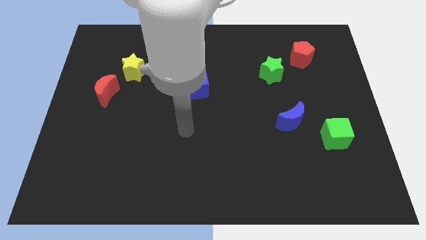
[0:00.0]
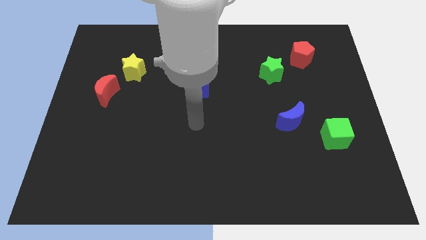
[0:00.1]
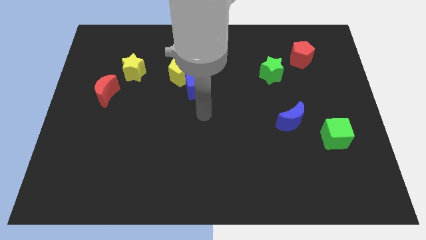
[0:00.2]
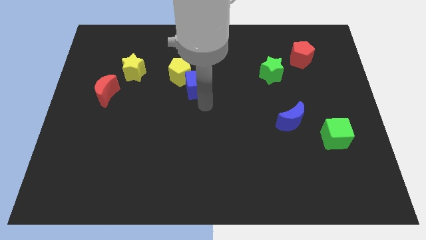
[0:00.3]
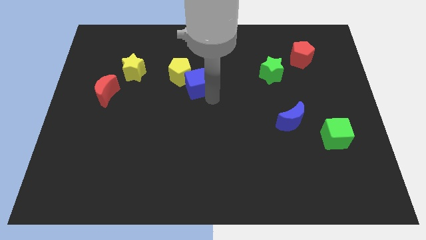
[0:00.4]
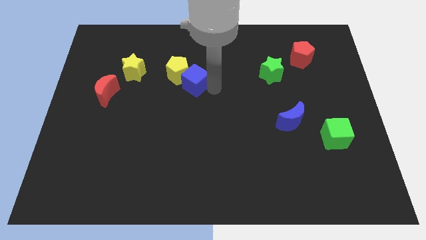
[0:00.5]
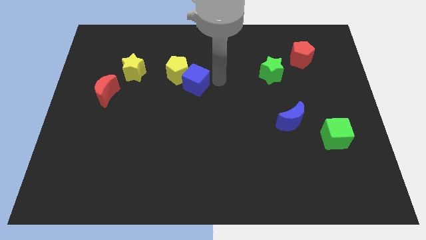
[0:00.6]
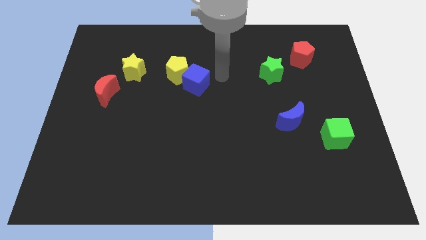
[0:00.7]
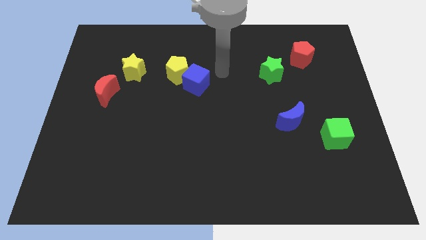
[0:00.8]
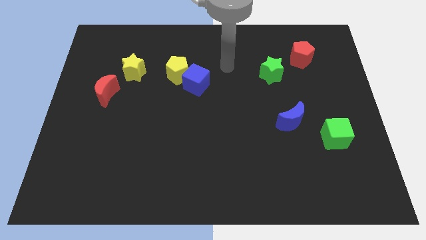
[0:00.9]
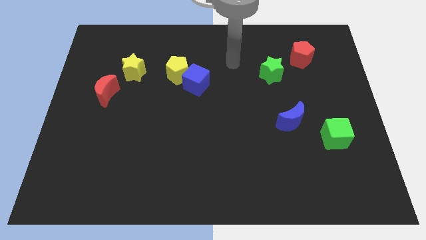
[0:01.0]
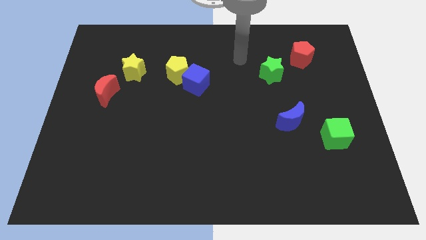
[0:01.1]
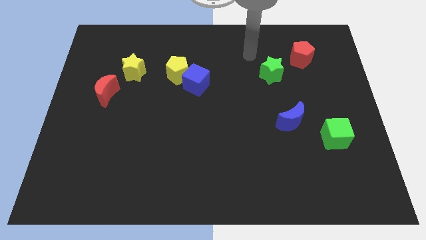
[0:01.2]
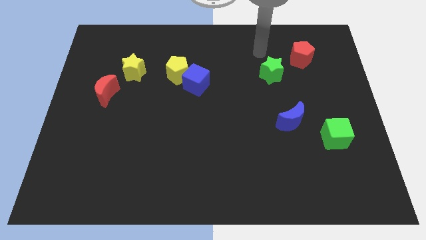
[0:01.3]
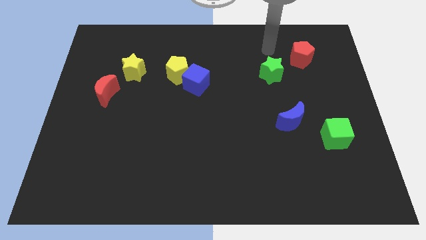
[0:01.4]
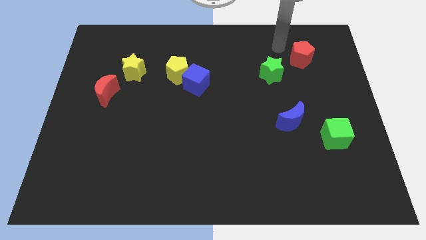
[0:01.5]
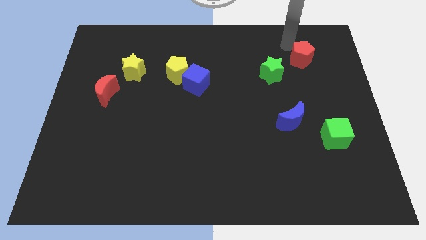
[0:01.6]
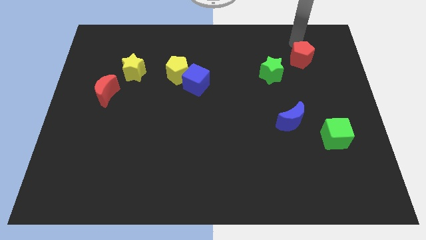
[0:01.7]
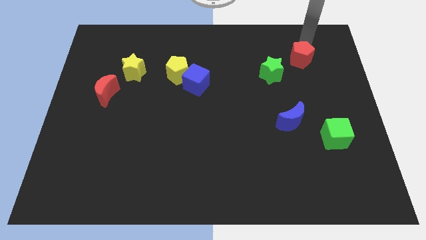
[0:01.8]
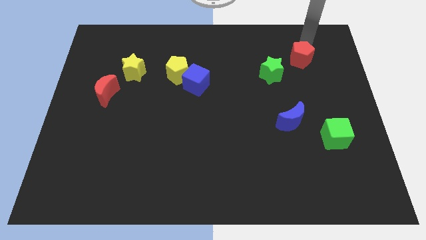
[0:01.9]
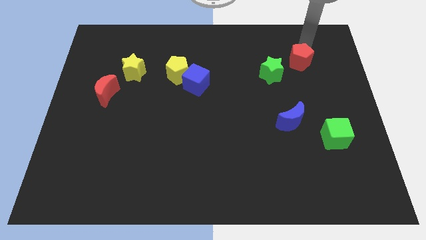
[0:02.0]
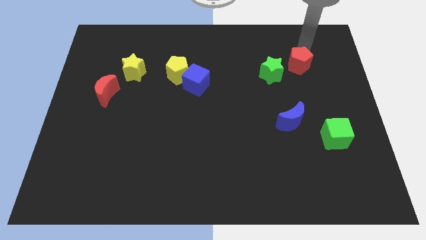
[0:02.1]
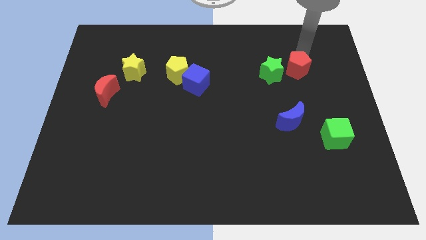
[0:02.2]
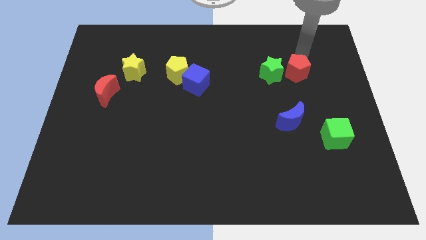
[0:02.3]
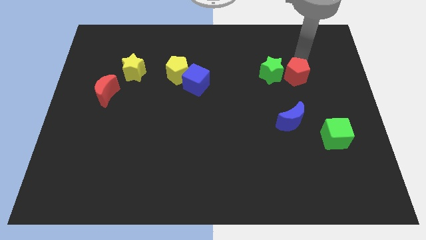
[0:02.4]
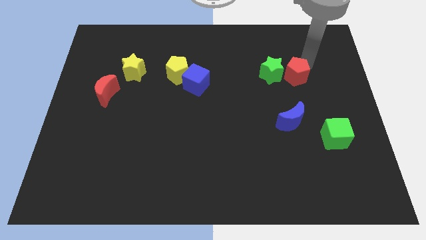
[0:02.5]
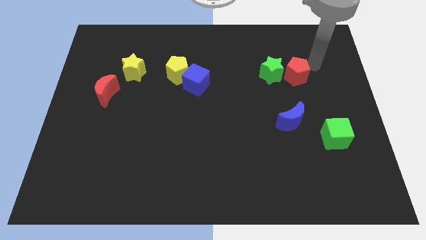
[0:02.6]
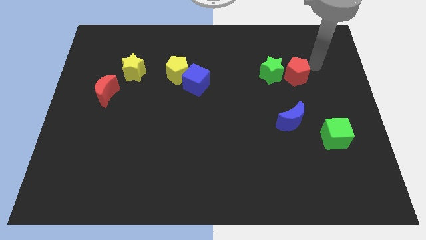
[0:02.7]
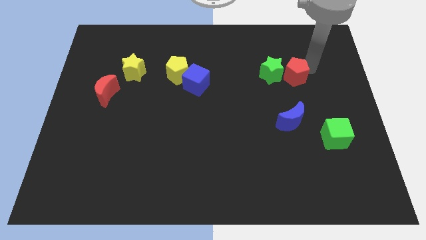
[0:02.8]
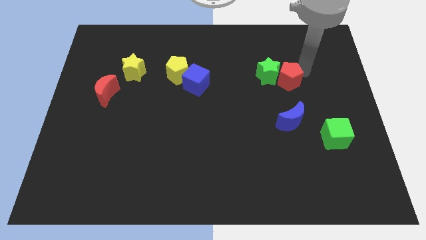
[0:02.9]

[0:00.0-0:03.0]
slightly move the red pentagon downwards and to the left diagonally

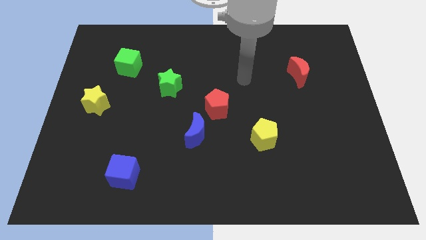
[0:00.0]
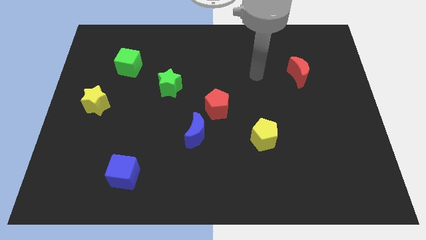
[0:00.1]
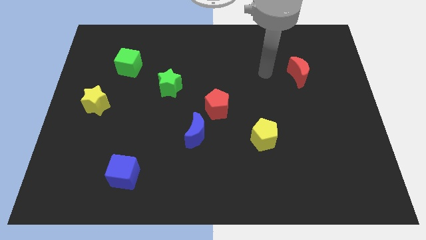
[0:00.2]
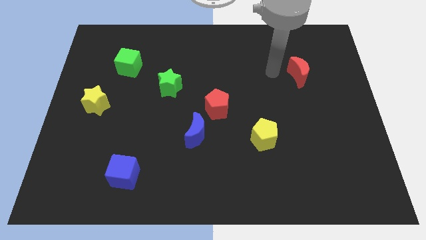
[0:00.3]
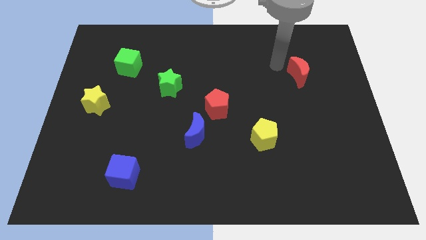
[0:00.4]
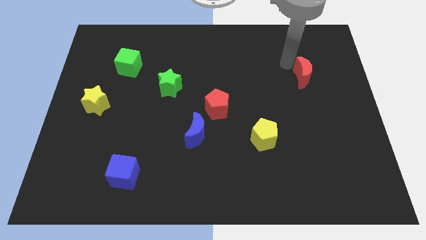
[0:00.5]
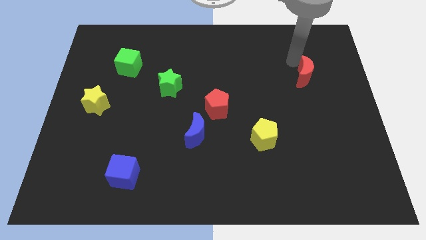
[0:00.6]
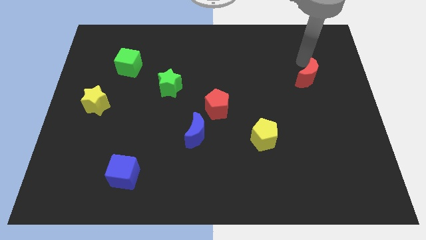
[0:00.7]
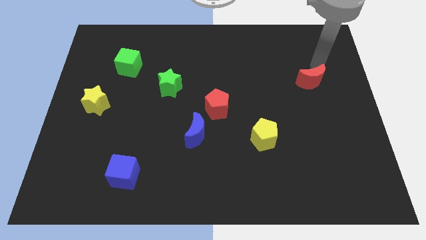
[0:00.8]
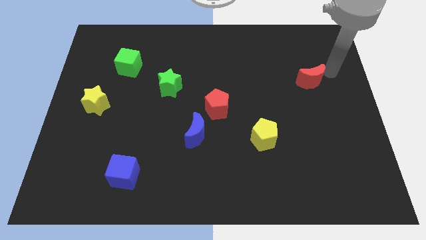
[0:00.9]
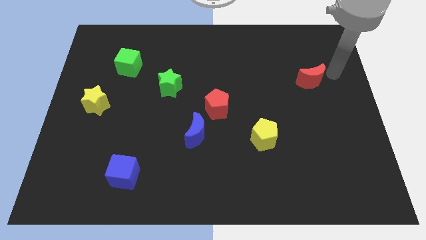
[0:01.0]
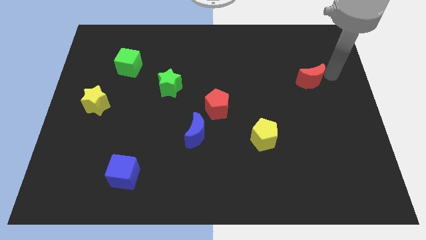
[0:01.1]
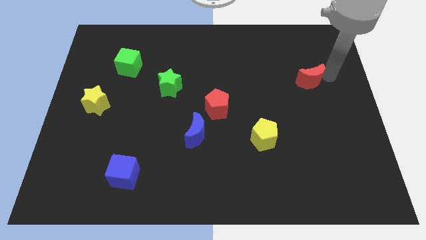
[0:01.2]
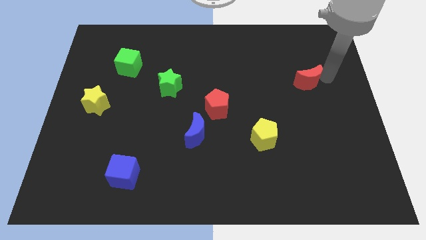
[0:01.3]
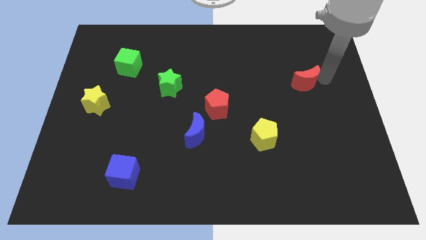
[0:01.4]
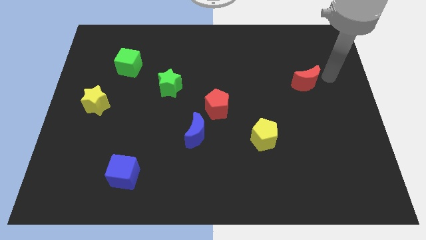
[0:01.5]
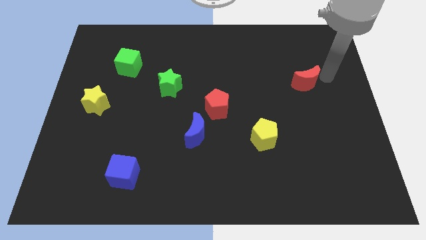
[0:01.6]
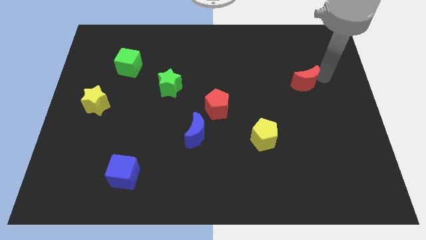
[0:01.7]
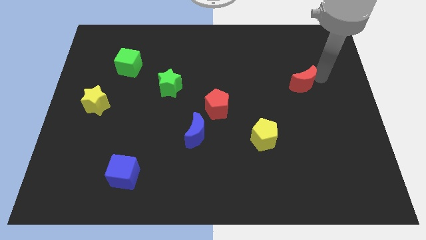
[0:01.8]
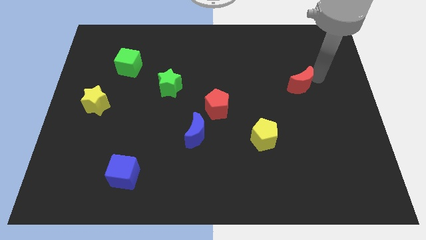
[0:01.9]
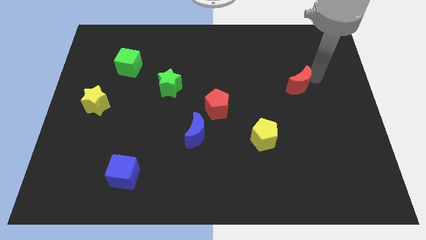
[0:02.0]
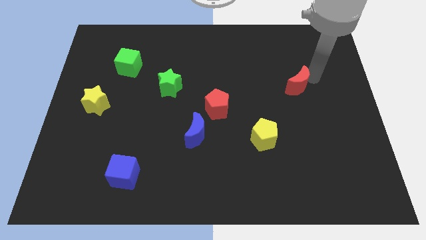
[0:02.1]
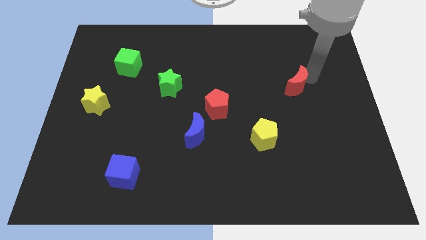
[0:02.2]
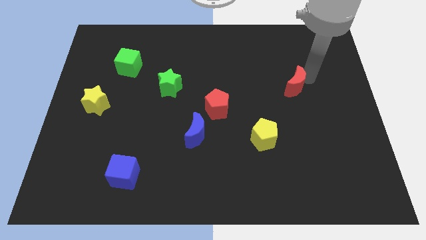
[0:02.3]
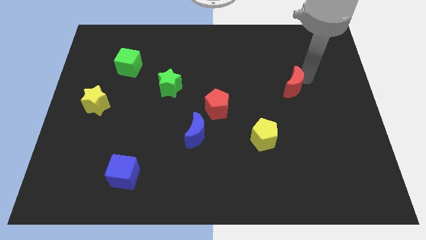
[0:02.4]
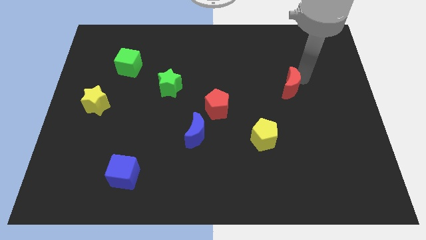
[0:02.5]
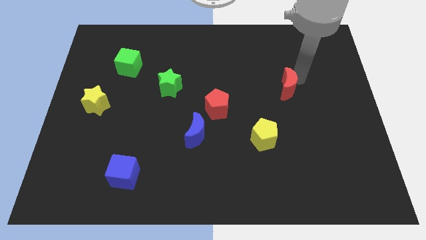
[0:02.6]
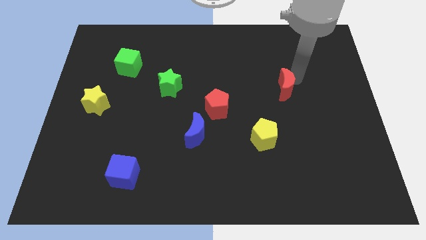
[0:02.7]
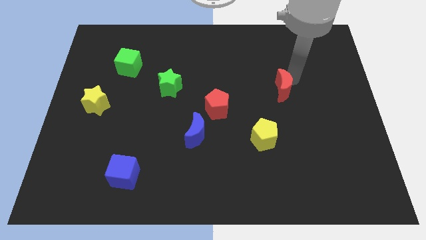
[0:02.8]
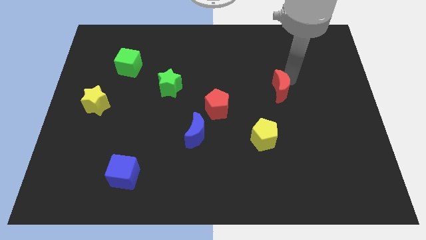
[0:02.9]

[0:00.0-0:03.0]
slide the red moon a little downwards and then to the left

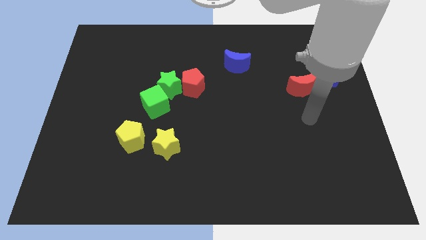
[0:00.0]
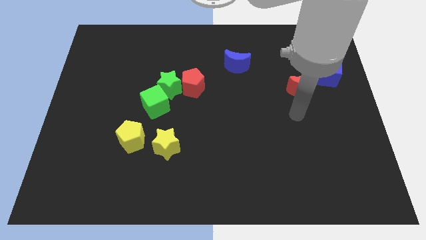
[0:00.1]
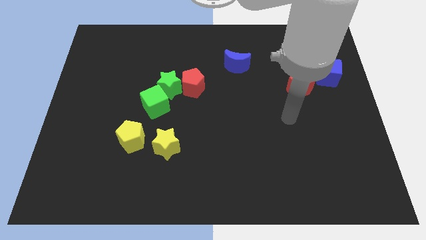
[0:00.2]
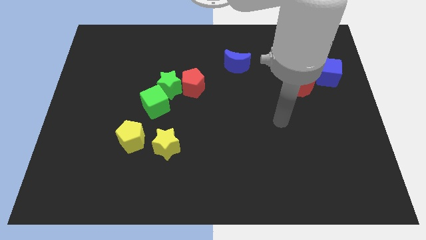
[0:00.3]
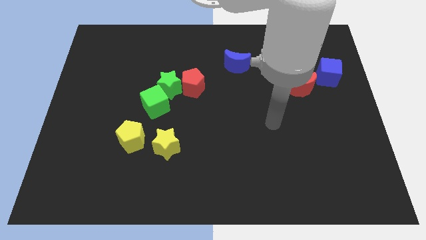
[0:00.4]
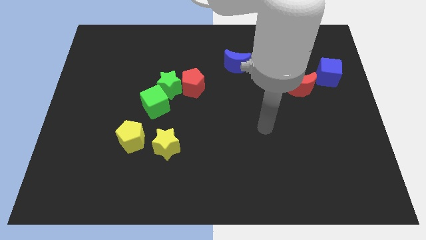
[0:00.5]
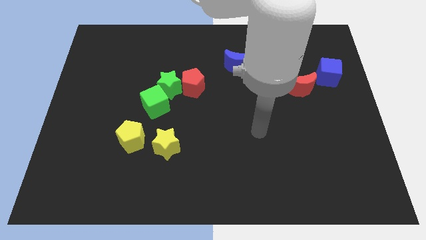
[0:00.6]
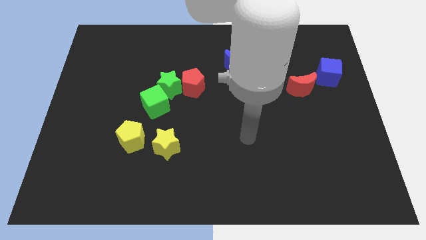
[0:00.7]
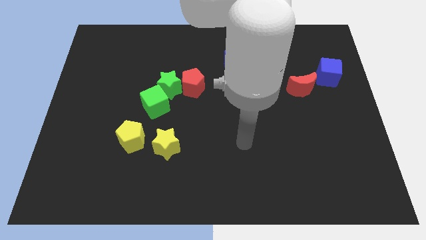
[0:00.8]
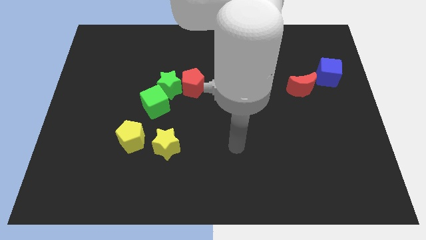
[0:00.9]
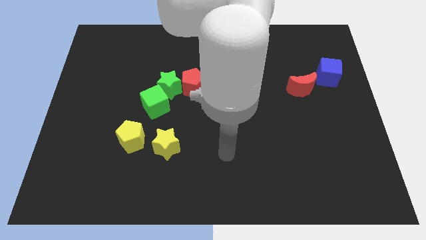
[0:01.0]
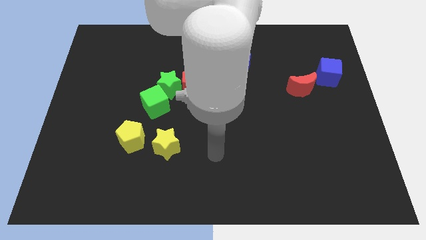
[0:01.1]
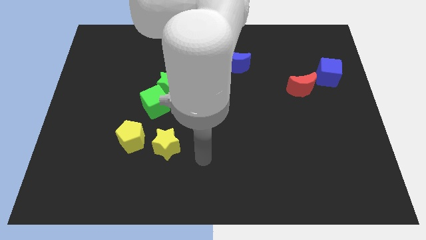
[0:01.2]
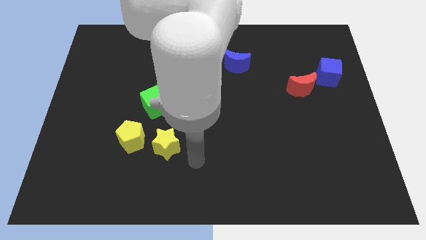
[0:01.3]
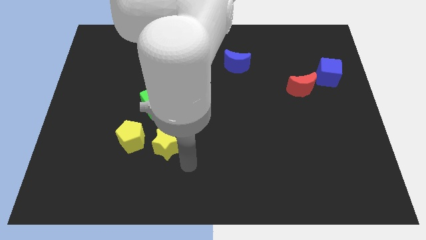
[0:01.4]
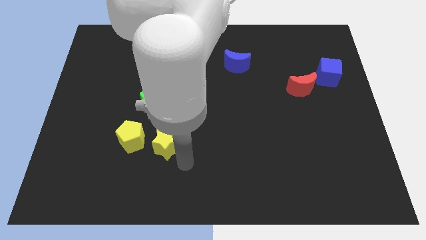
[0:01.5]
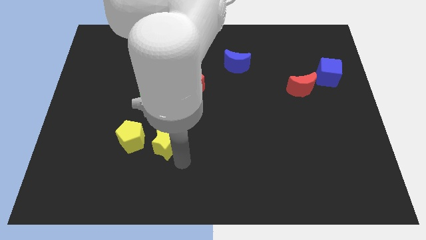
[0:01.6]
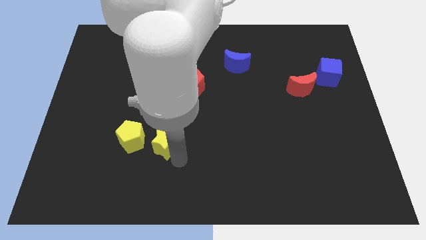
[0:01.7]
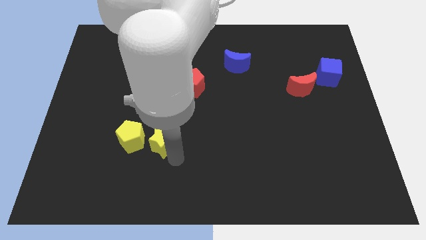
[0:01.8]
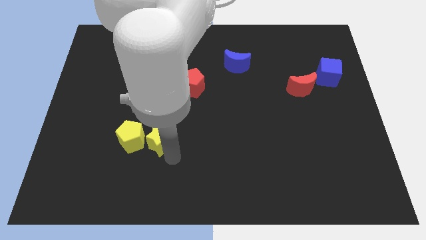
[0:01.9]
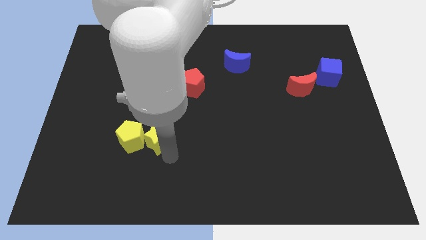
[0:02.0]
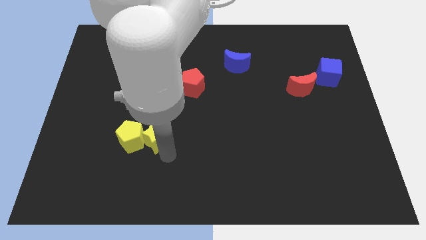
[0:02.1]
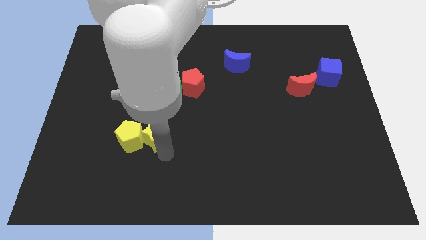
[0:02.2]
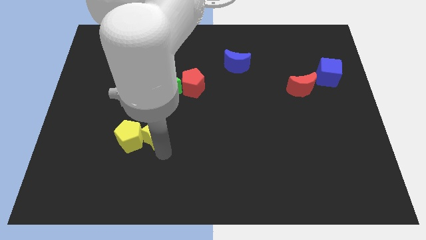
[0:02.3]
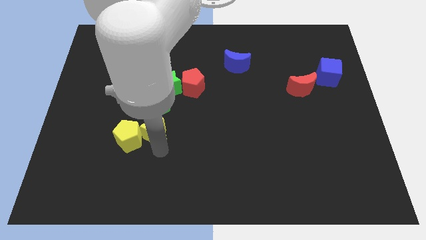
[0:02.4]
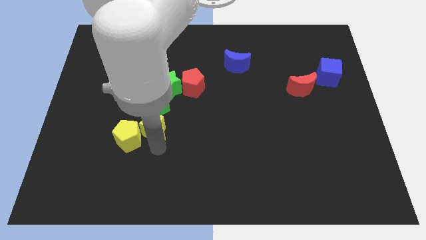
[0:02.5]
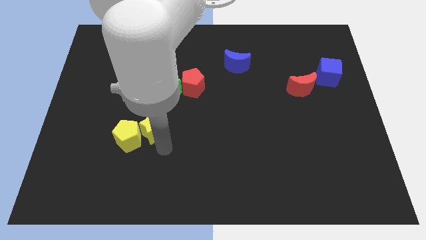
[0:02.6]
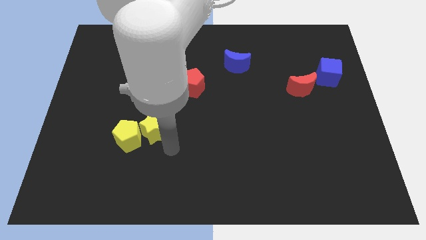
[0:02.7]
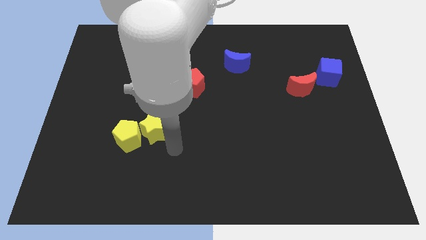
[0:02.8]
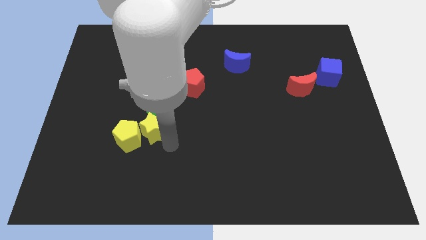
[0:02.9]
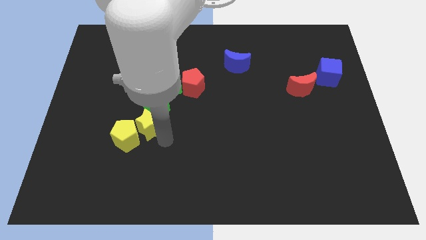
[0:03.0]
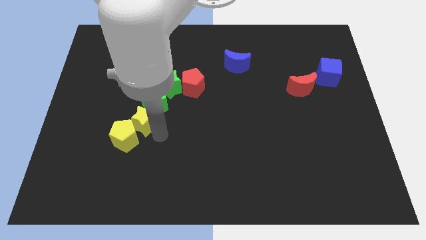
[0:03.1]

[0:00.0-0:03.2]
move the yellow star up and then left somewhat
